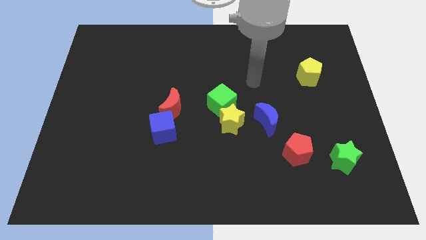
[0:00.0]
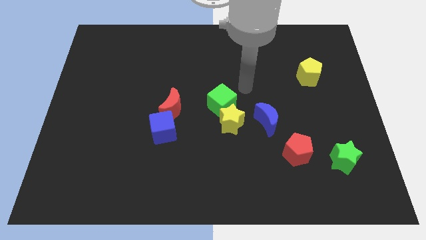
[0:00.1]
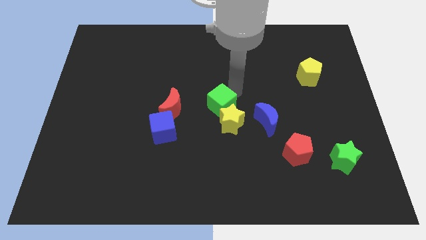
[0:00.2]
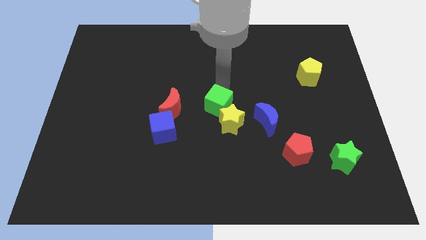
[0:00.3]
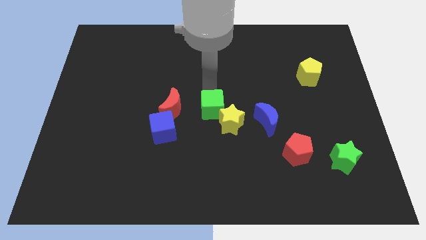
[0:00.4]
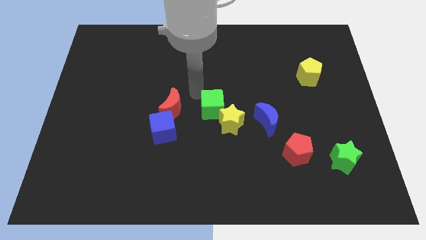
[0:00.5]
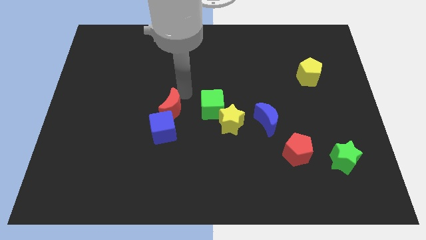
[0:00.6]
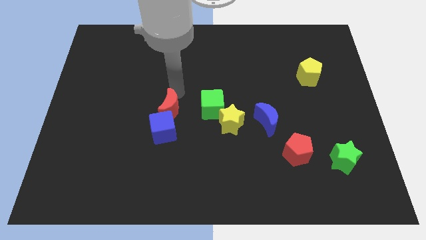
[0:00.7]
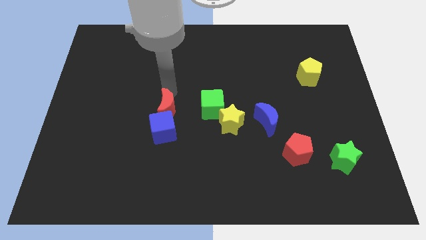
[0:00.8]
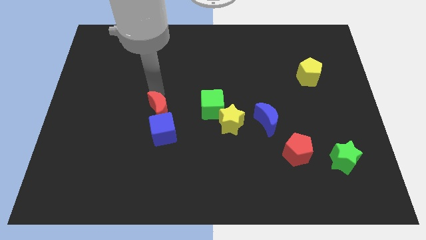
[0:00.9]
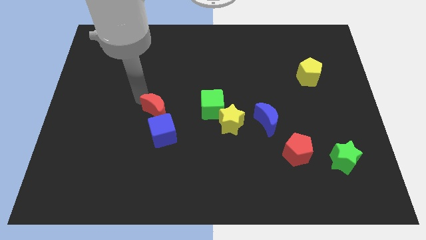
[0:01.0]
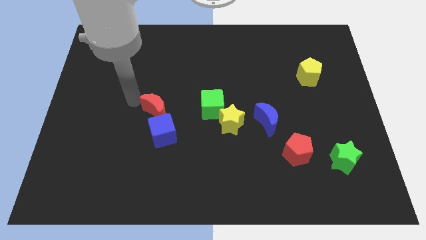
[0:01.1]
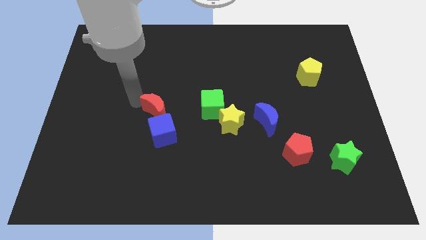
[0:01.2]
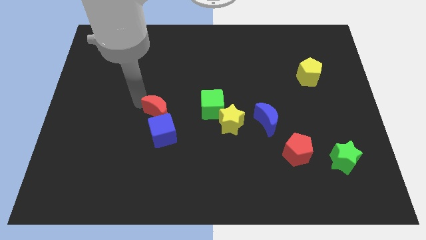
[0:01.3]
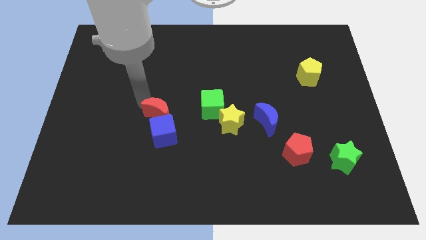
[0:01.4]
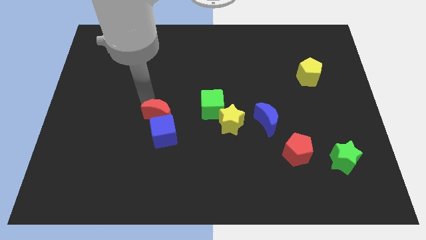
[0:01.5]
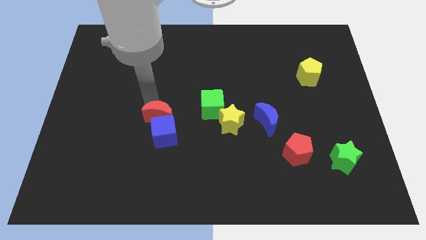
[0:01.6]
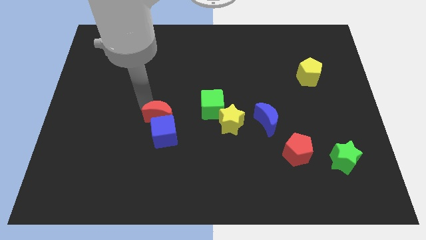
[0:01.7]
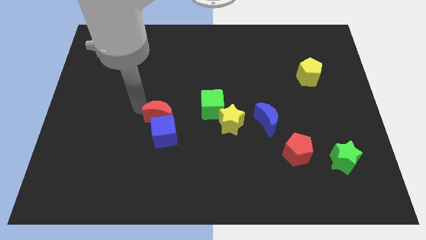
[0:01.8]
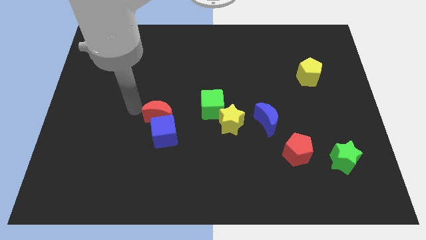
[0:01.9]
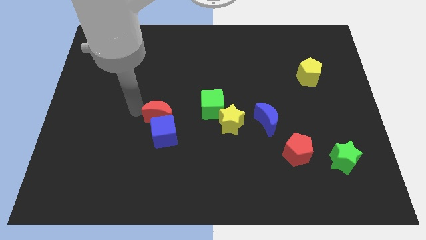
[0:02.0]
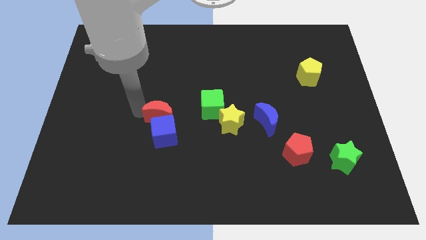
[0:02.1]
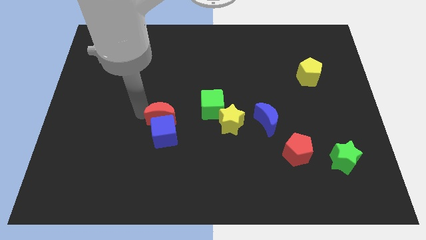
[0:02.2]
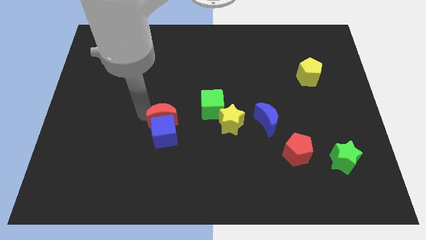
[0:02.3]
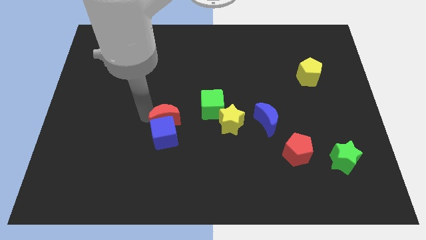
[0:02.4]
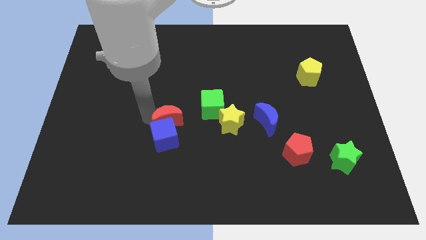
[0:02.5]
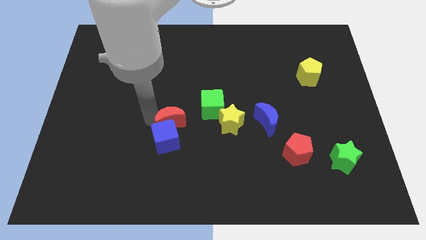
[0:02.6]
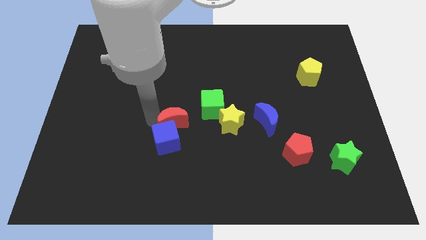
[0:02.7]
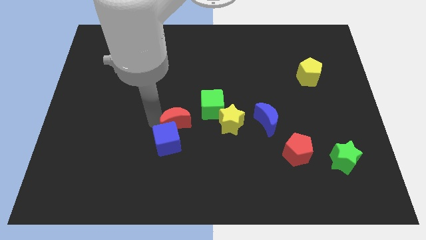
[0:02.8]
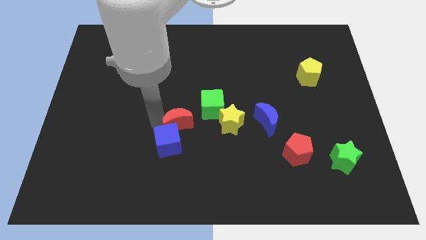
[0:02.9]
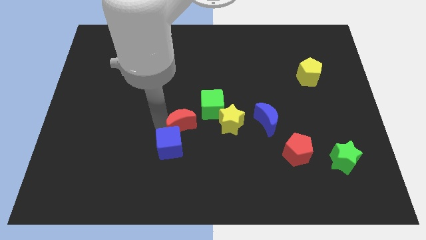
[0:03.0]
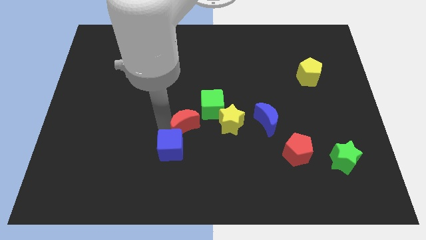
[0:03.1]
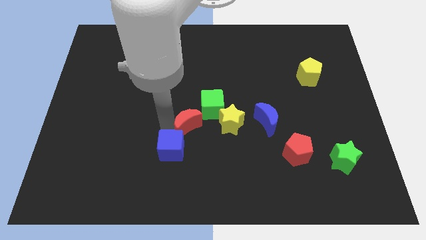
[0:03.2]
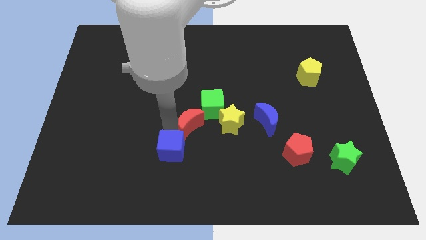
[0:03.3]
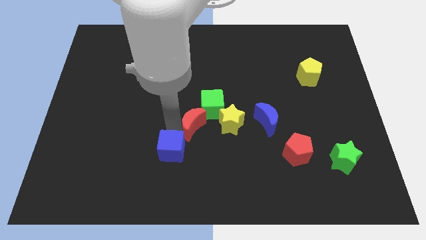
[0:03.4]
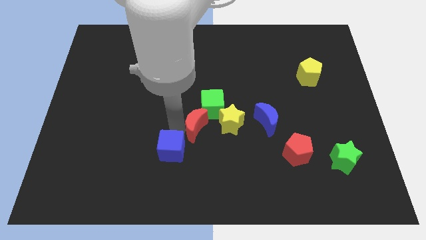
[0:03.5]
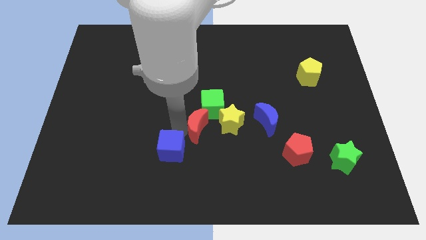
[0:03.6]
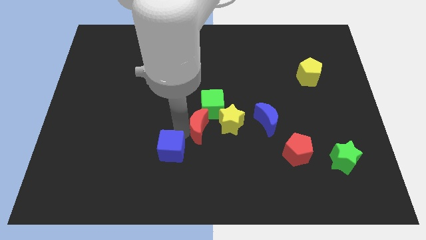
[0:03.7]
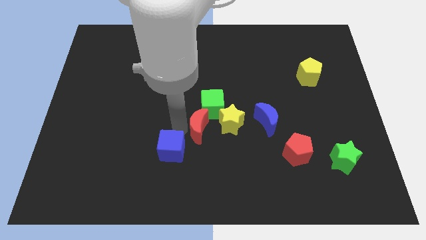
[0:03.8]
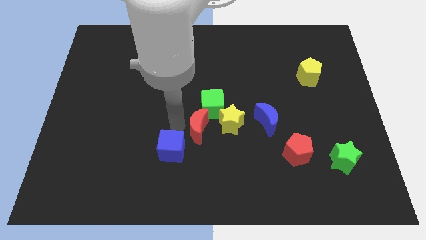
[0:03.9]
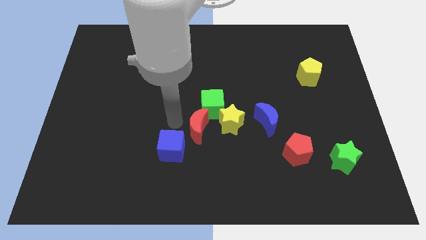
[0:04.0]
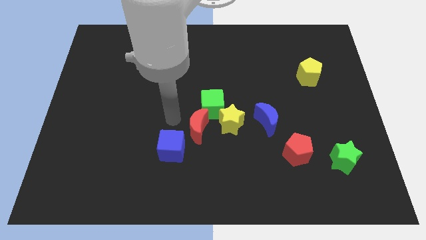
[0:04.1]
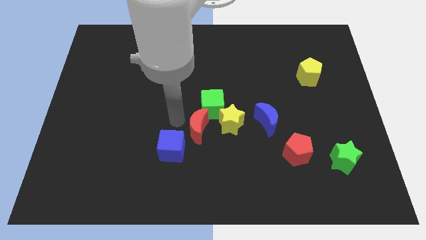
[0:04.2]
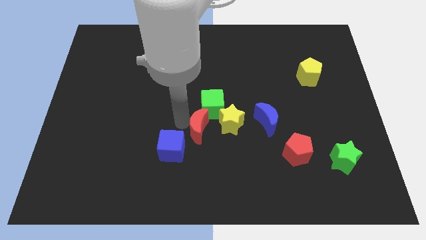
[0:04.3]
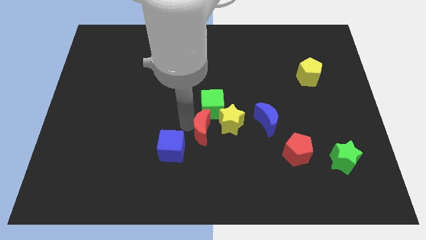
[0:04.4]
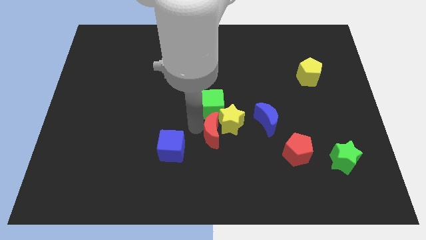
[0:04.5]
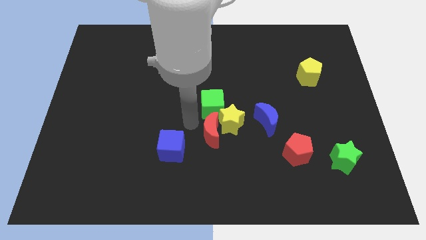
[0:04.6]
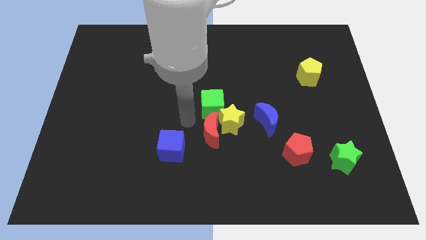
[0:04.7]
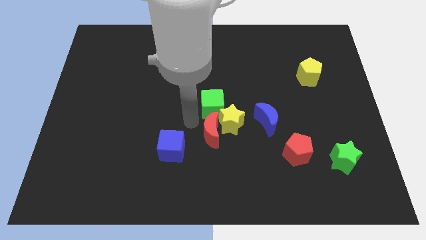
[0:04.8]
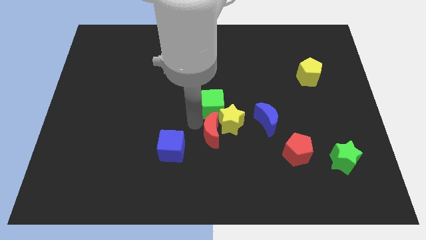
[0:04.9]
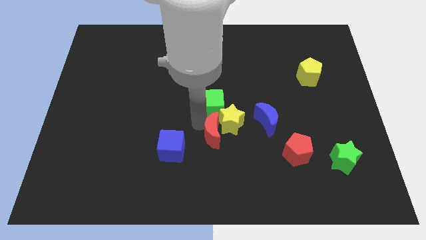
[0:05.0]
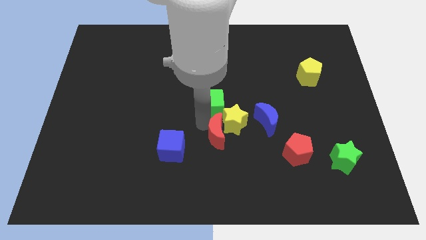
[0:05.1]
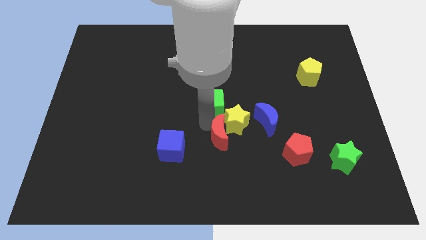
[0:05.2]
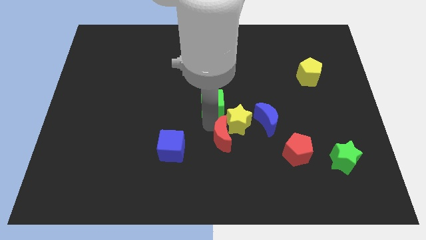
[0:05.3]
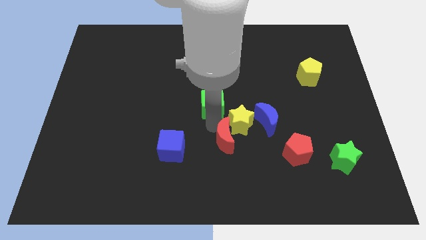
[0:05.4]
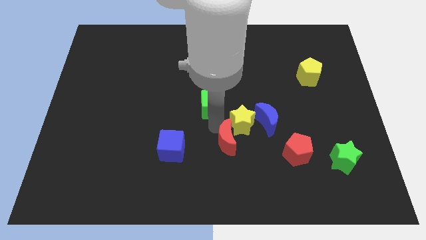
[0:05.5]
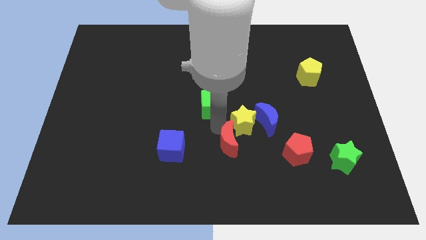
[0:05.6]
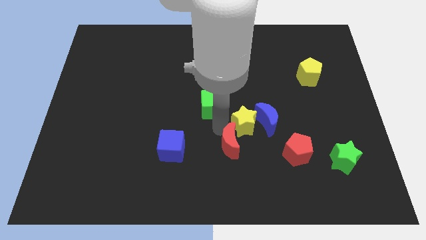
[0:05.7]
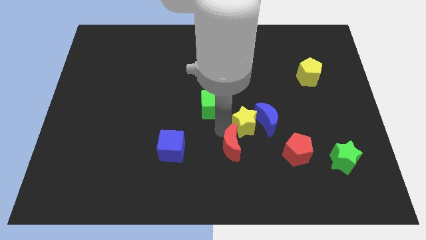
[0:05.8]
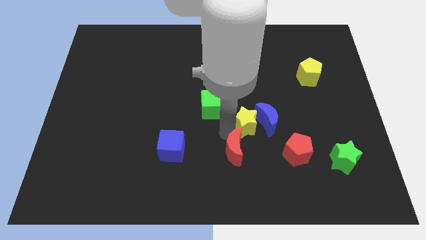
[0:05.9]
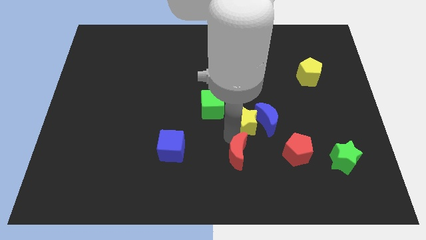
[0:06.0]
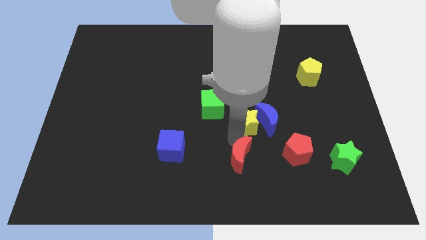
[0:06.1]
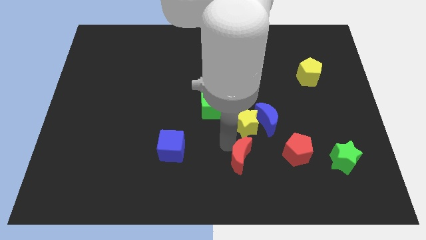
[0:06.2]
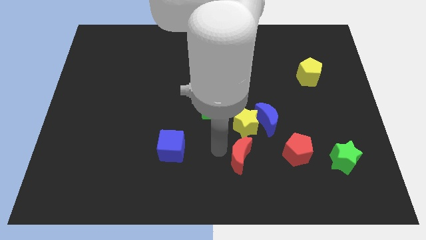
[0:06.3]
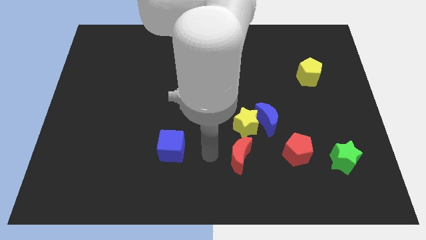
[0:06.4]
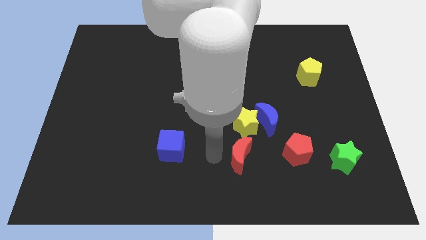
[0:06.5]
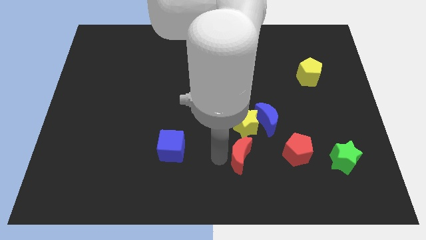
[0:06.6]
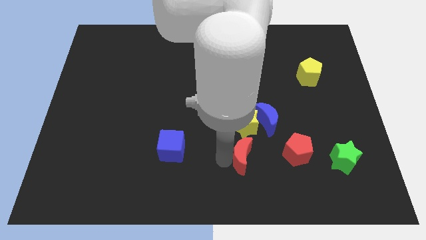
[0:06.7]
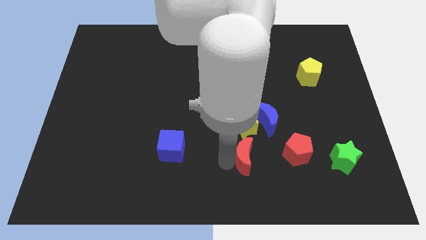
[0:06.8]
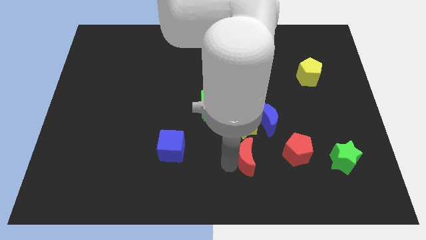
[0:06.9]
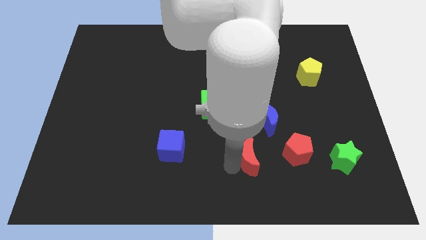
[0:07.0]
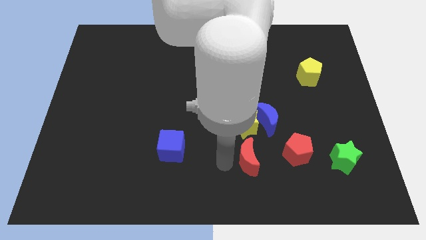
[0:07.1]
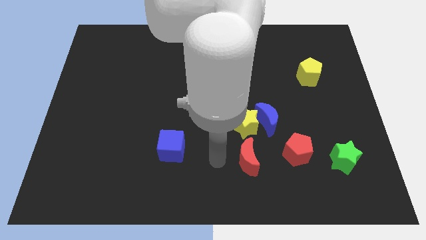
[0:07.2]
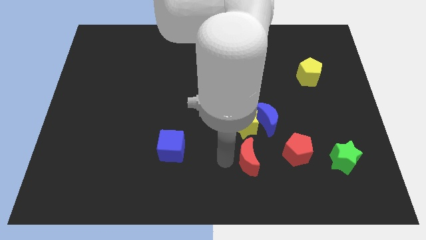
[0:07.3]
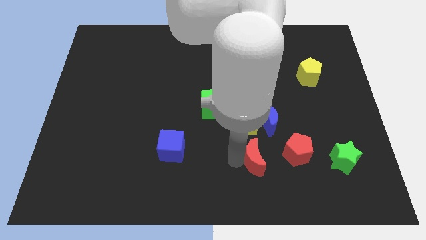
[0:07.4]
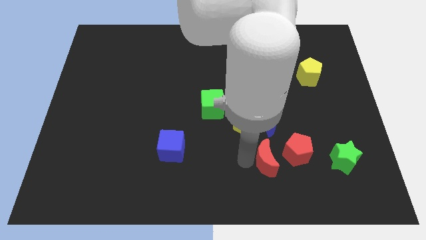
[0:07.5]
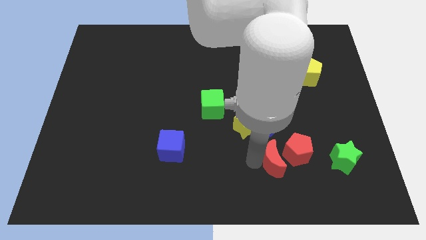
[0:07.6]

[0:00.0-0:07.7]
slide the red moon just left of the green star
